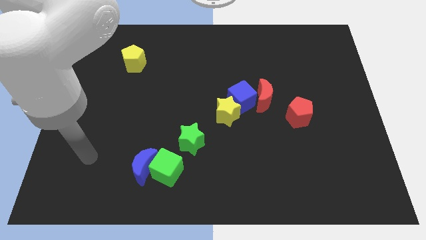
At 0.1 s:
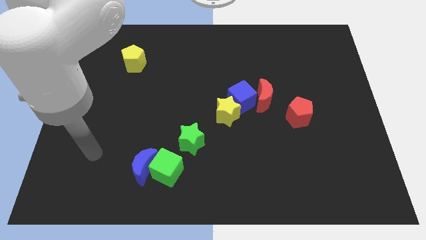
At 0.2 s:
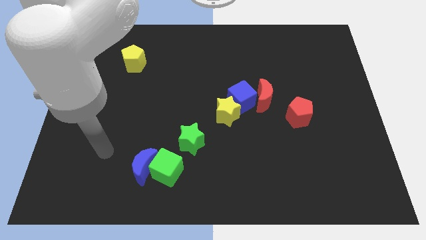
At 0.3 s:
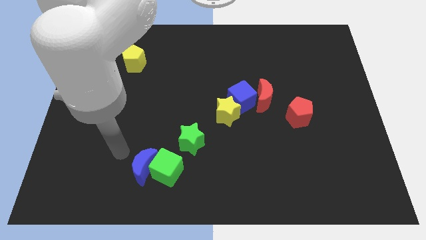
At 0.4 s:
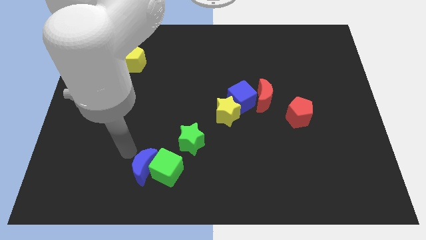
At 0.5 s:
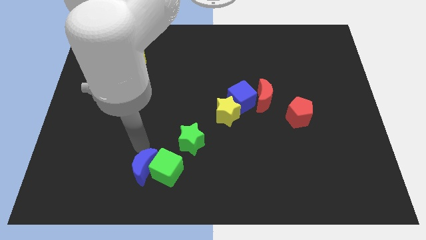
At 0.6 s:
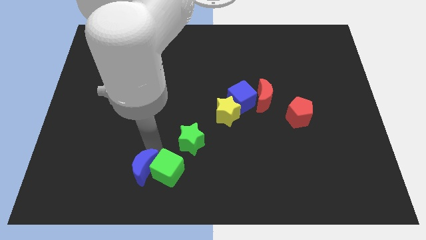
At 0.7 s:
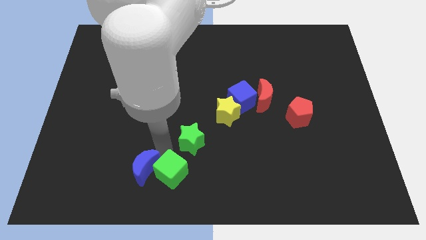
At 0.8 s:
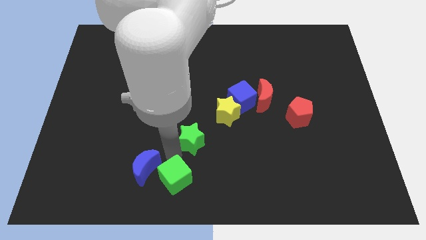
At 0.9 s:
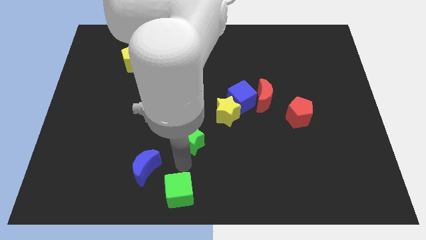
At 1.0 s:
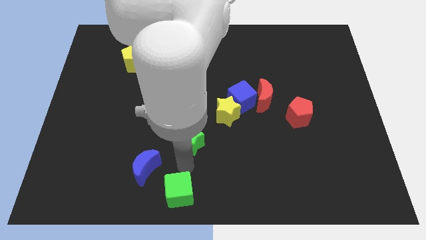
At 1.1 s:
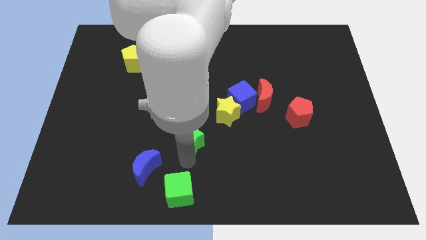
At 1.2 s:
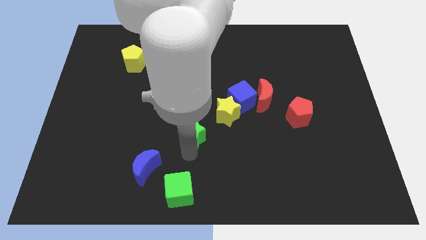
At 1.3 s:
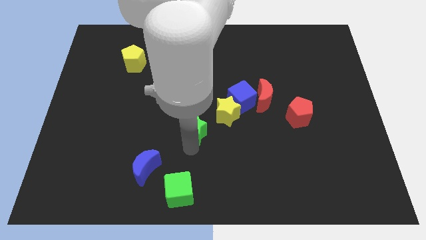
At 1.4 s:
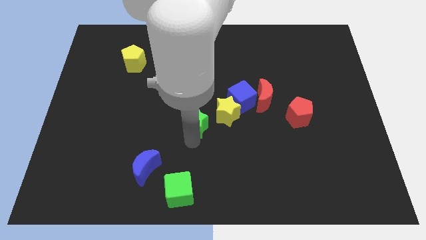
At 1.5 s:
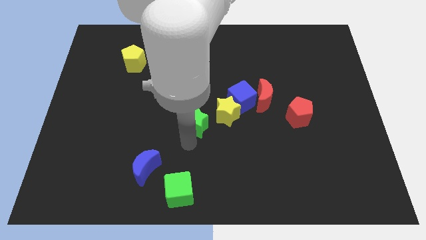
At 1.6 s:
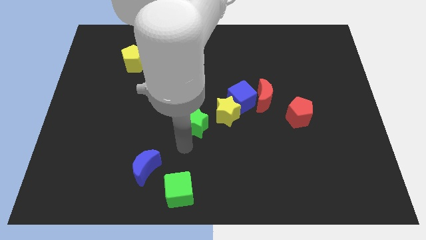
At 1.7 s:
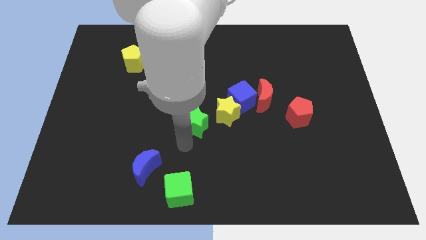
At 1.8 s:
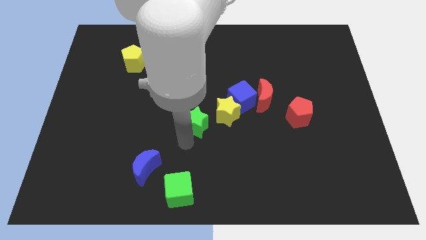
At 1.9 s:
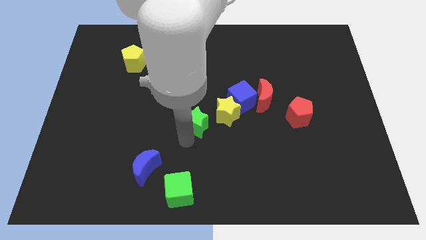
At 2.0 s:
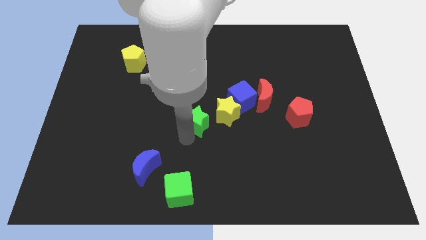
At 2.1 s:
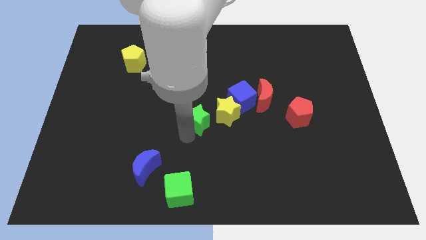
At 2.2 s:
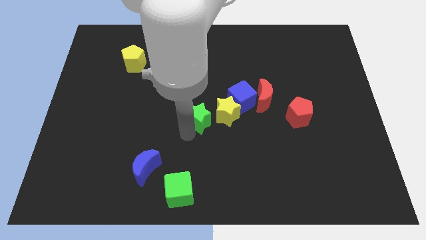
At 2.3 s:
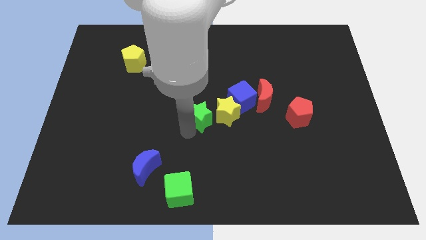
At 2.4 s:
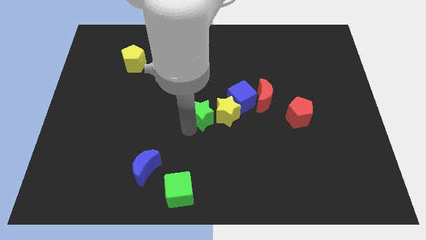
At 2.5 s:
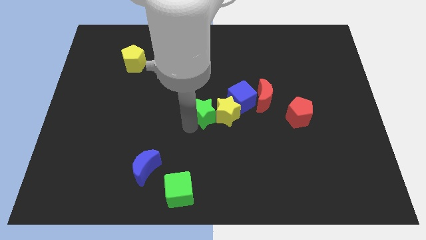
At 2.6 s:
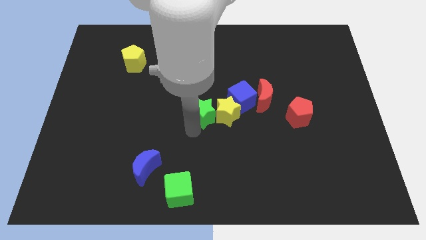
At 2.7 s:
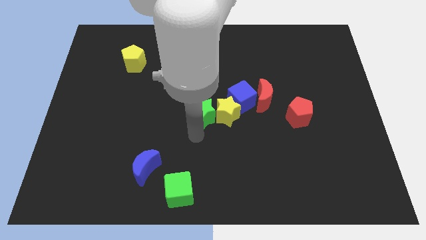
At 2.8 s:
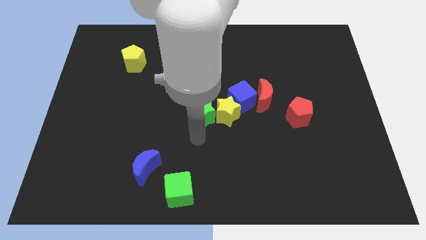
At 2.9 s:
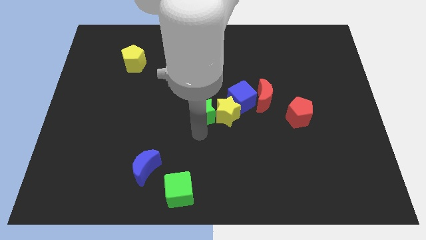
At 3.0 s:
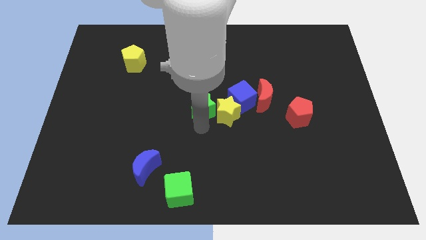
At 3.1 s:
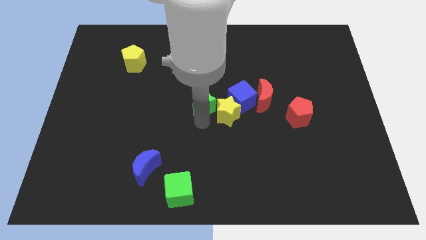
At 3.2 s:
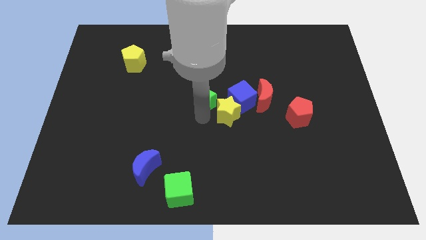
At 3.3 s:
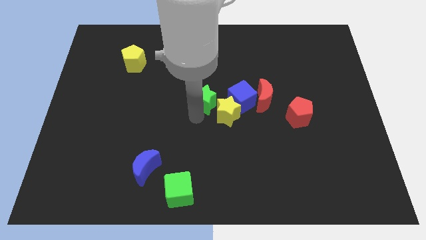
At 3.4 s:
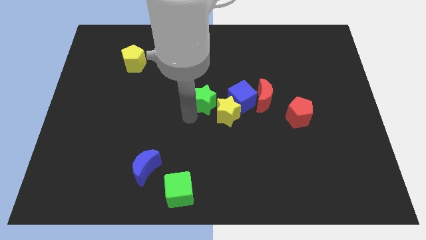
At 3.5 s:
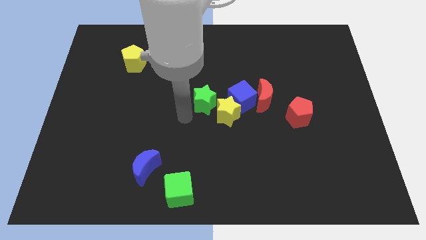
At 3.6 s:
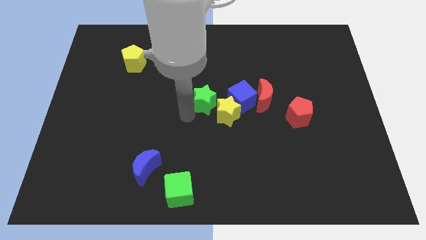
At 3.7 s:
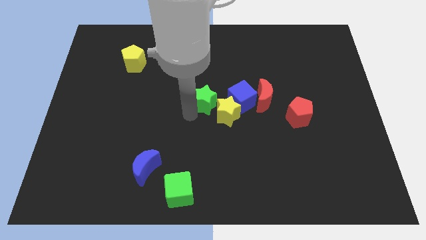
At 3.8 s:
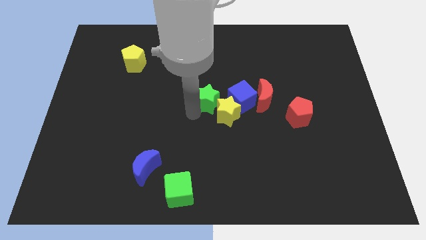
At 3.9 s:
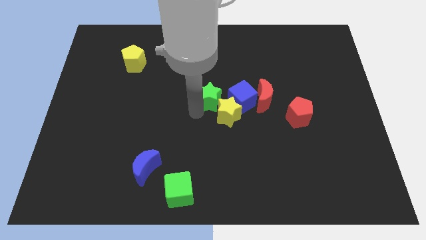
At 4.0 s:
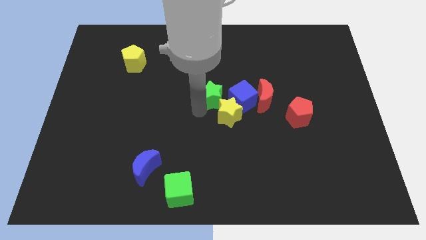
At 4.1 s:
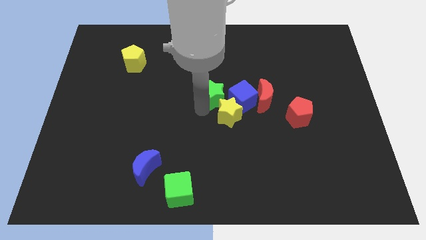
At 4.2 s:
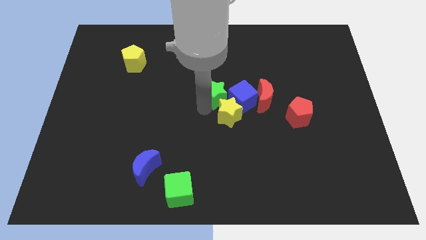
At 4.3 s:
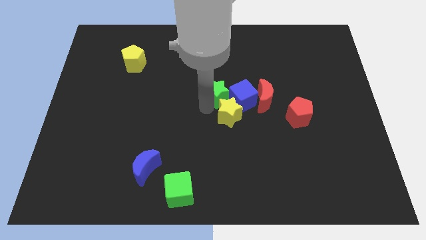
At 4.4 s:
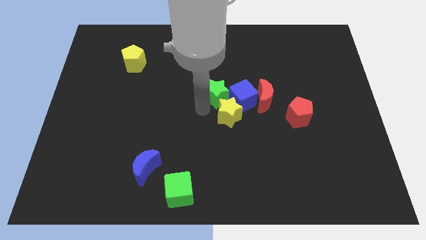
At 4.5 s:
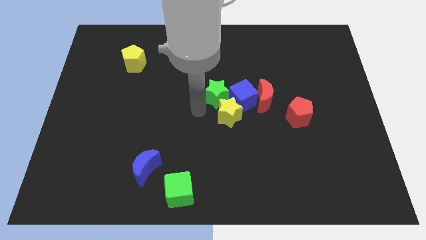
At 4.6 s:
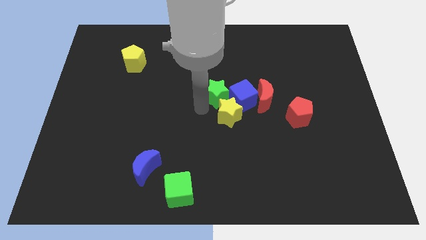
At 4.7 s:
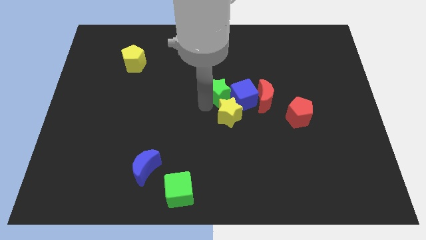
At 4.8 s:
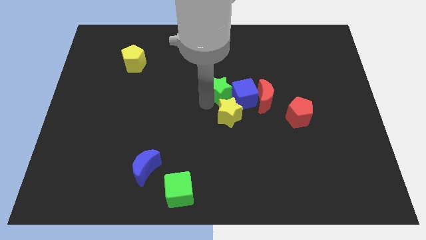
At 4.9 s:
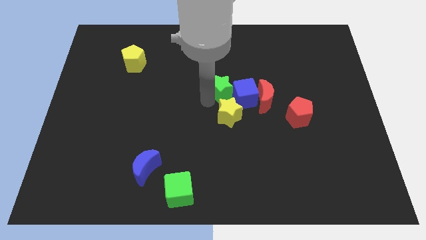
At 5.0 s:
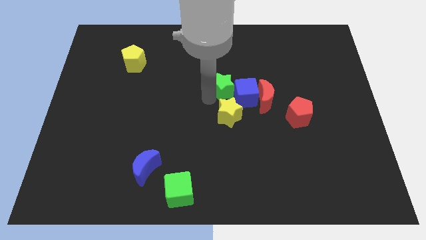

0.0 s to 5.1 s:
move the green star diagonally up and to the left of the red moon

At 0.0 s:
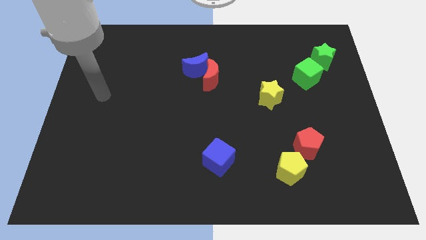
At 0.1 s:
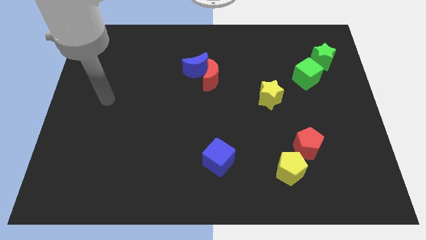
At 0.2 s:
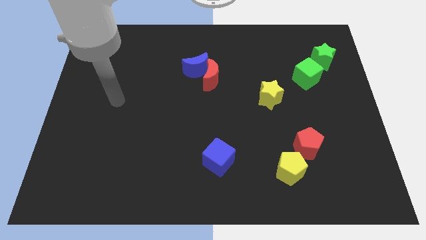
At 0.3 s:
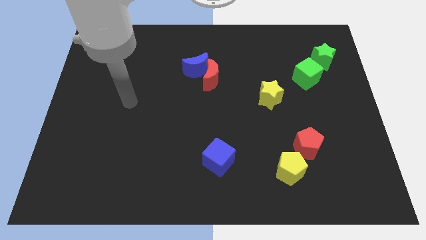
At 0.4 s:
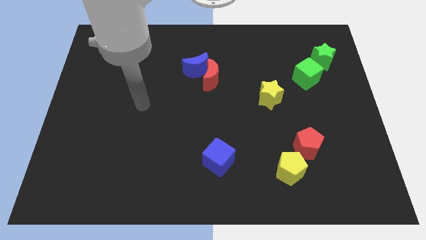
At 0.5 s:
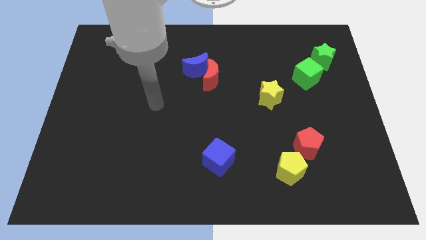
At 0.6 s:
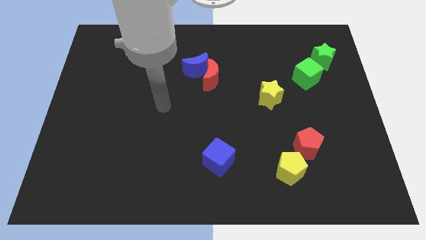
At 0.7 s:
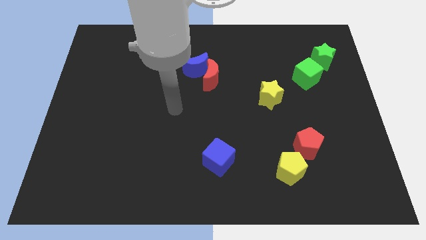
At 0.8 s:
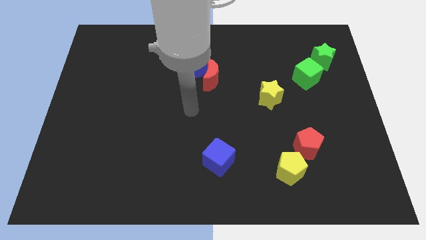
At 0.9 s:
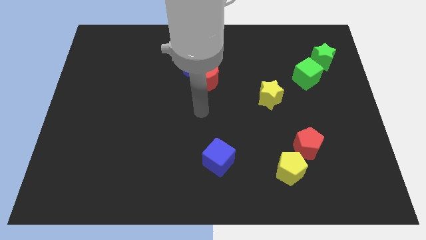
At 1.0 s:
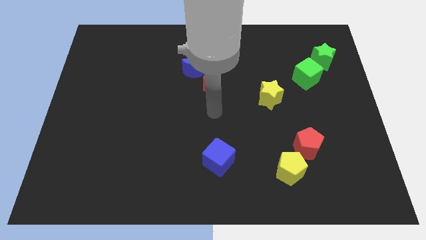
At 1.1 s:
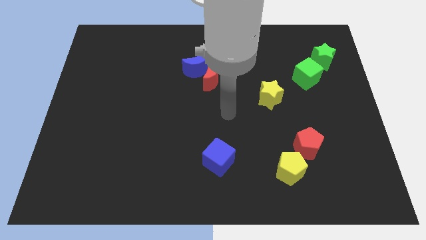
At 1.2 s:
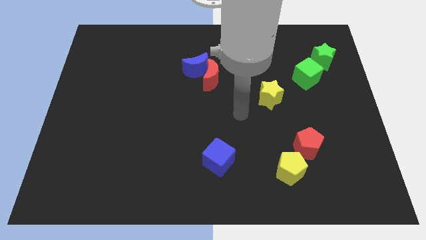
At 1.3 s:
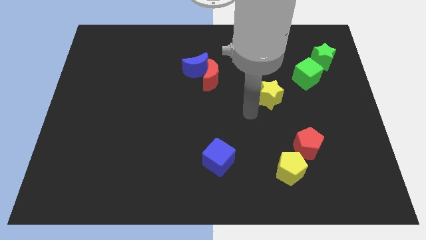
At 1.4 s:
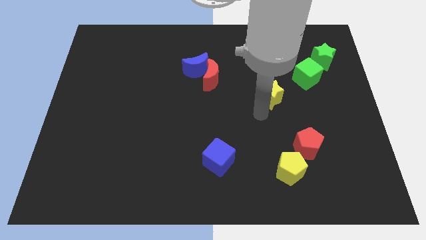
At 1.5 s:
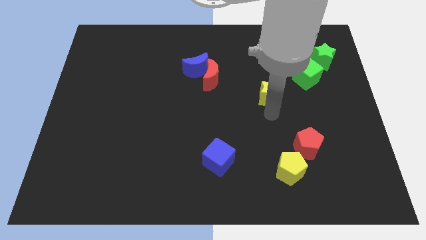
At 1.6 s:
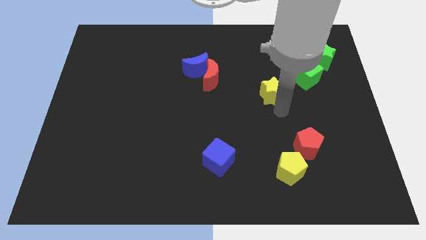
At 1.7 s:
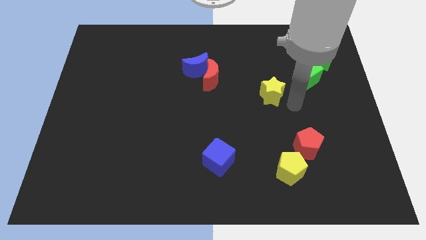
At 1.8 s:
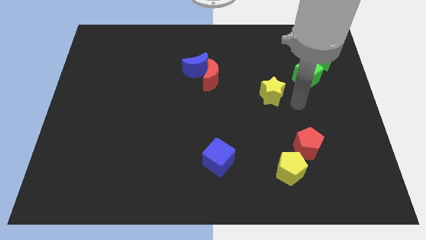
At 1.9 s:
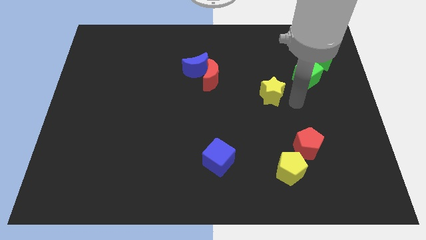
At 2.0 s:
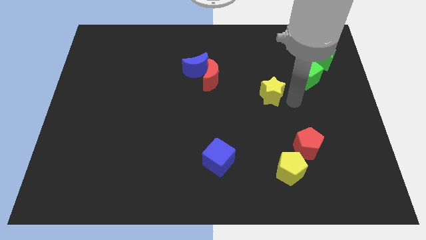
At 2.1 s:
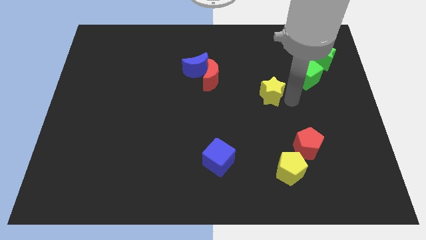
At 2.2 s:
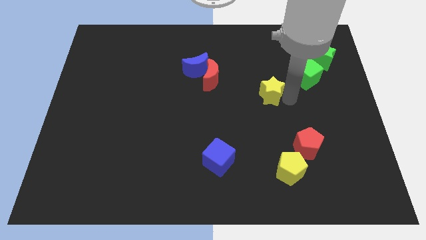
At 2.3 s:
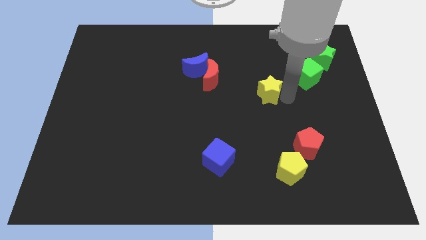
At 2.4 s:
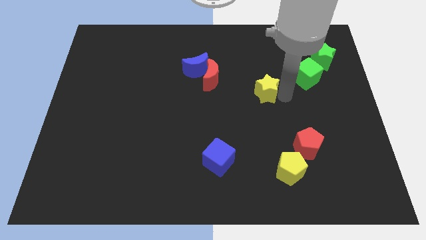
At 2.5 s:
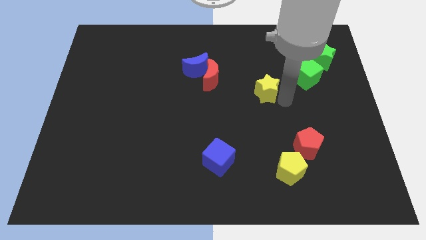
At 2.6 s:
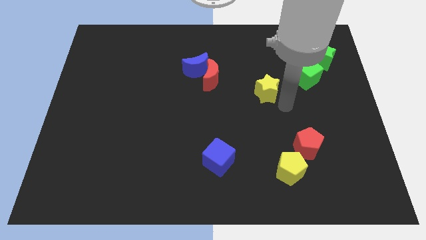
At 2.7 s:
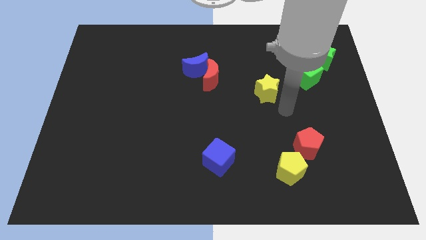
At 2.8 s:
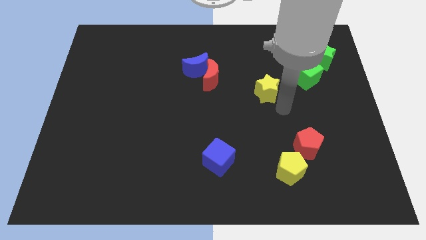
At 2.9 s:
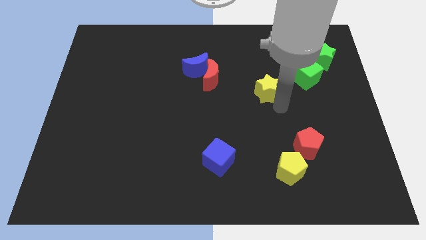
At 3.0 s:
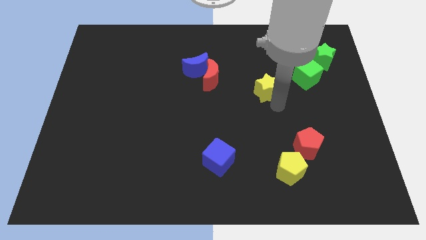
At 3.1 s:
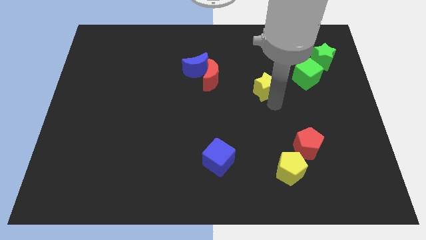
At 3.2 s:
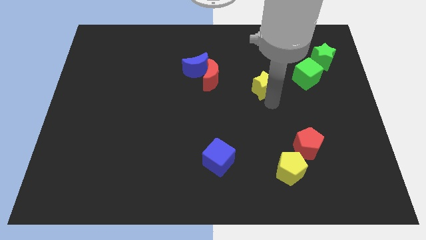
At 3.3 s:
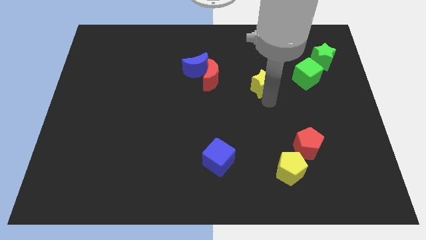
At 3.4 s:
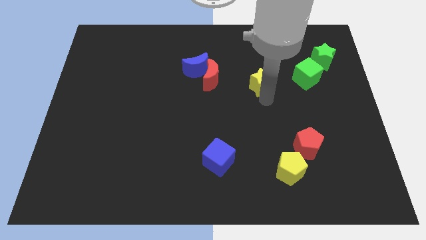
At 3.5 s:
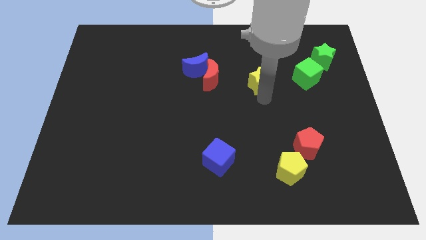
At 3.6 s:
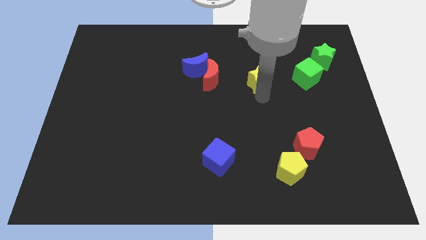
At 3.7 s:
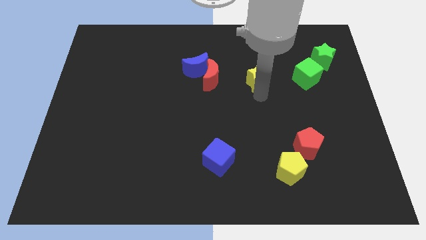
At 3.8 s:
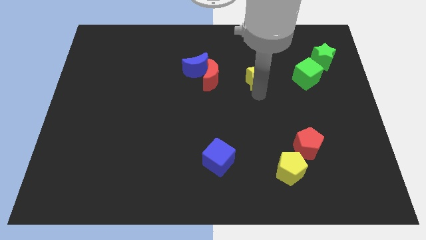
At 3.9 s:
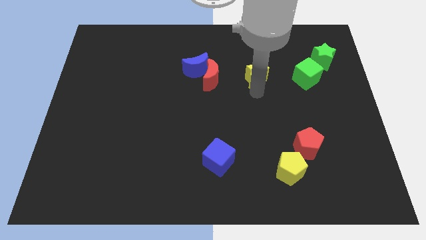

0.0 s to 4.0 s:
push the yellow star right of the blue moon
